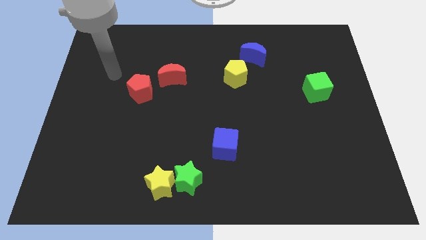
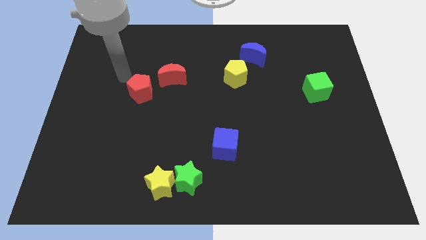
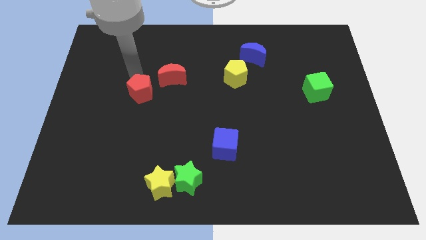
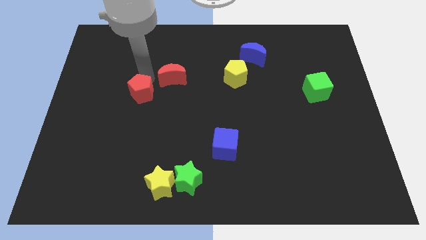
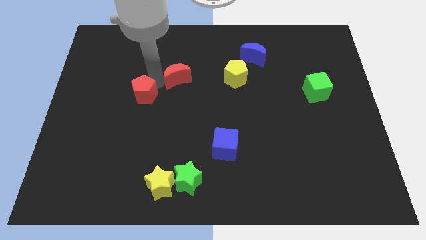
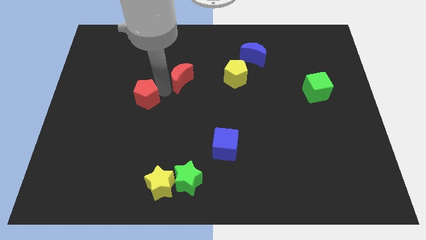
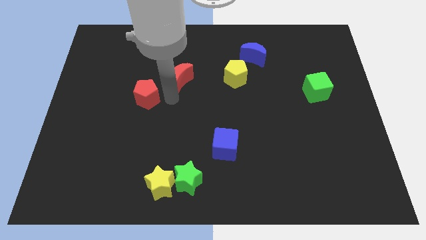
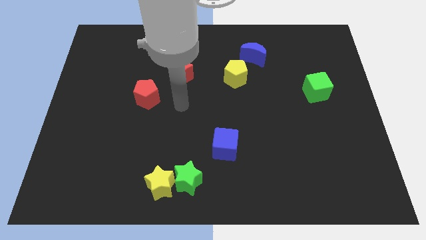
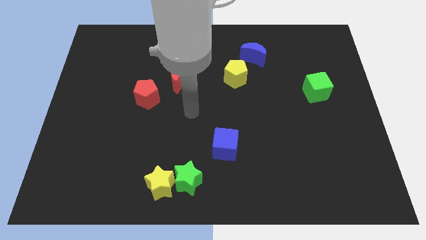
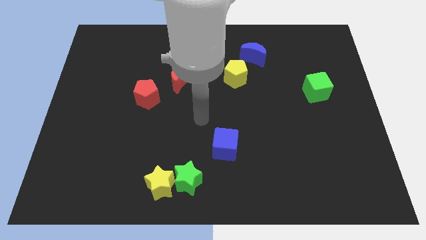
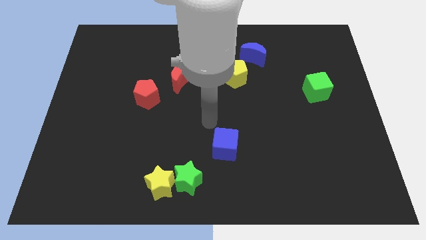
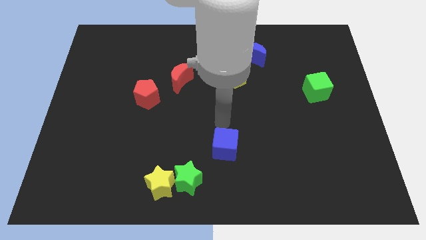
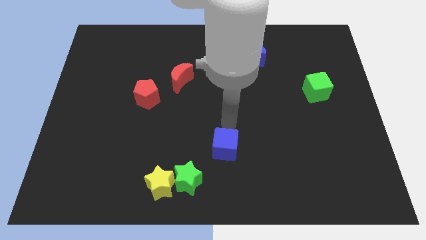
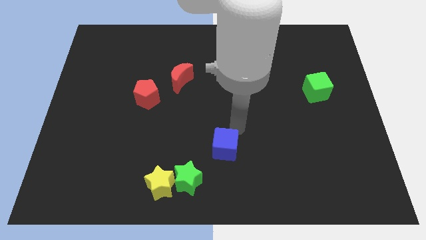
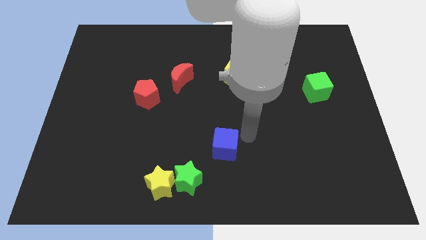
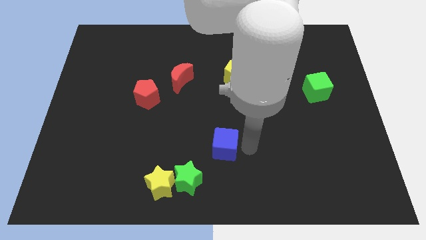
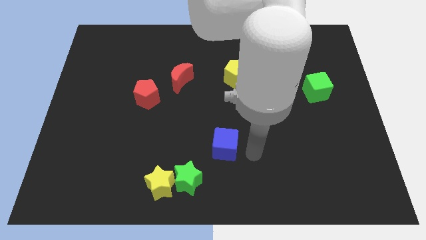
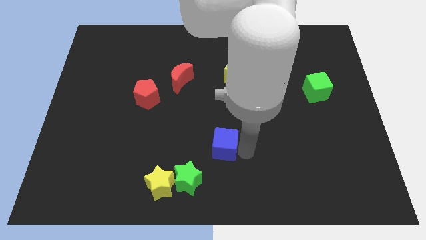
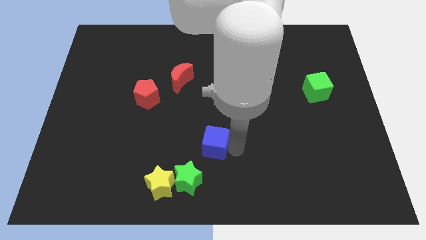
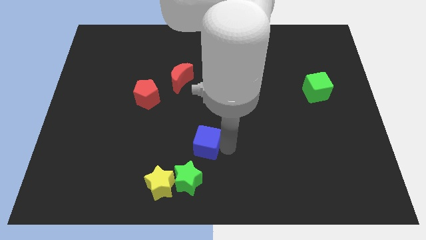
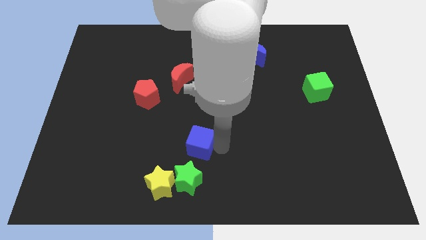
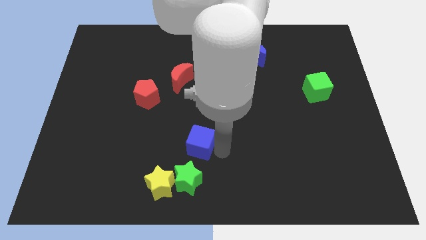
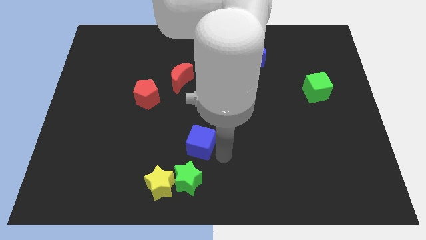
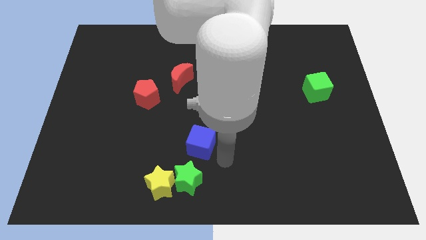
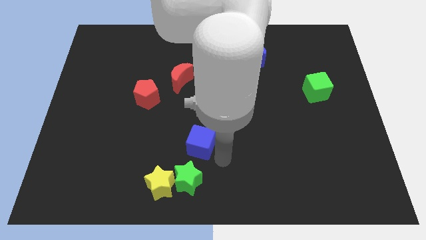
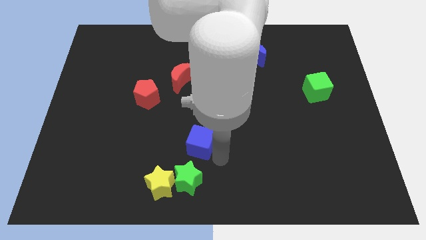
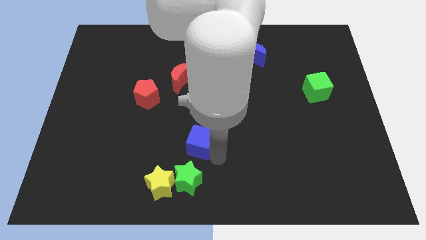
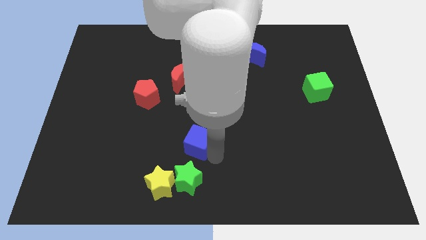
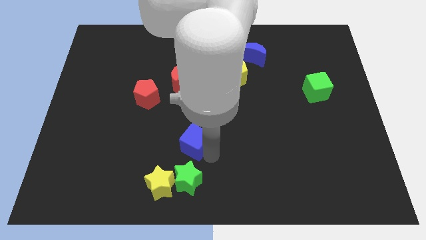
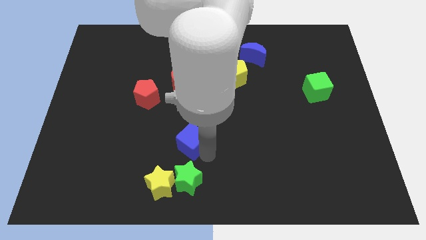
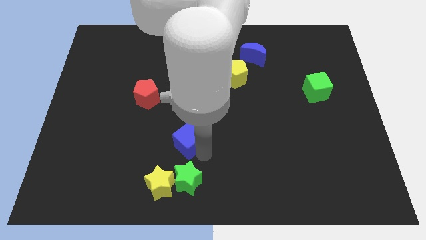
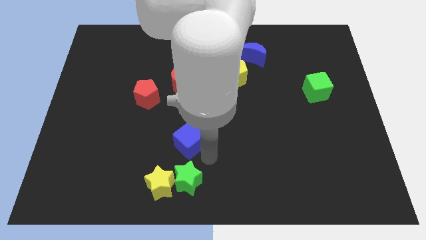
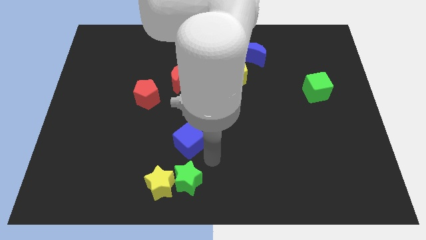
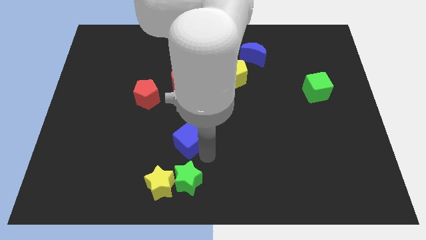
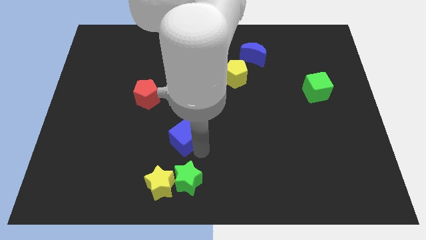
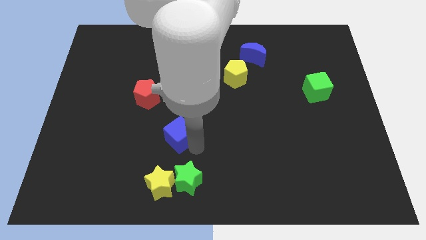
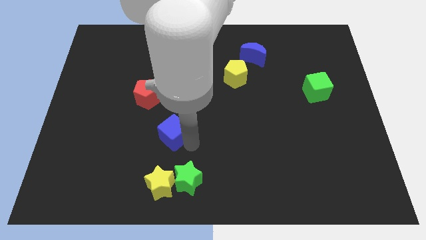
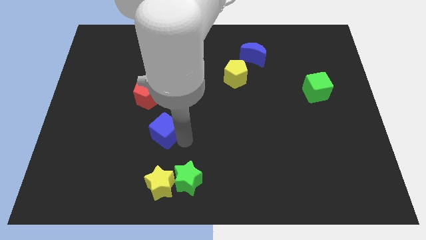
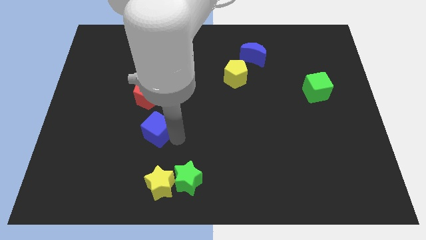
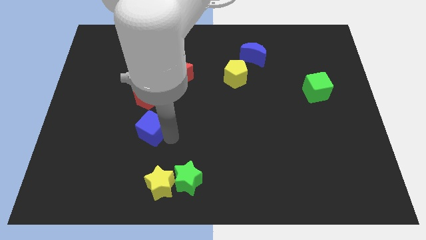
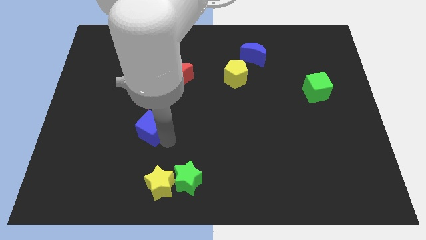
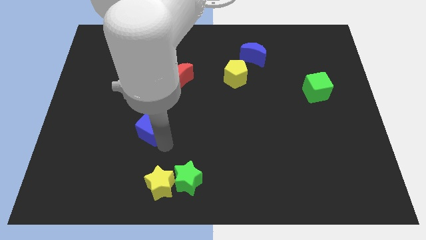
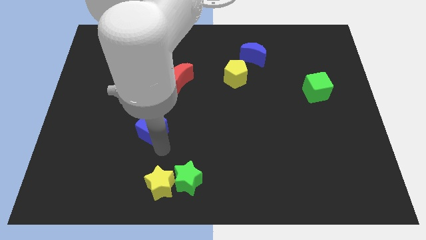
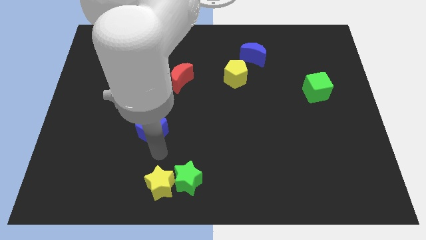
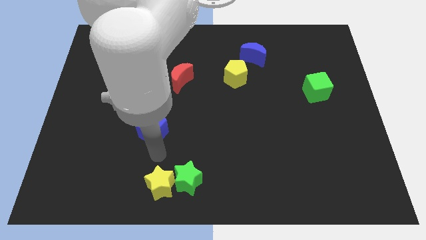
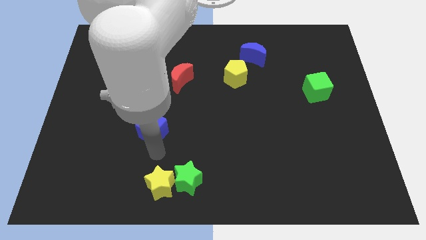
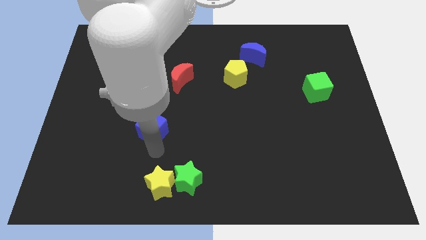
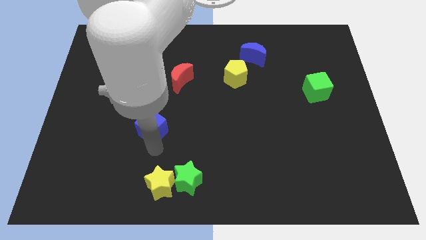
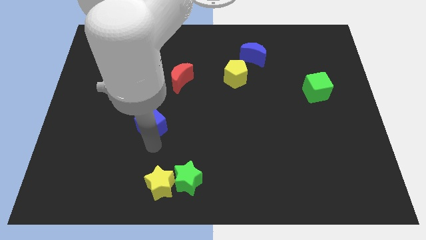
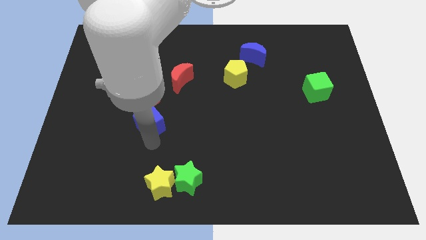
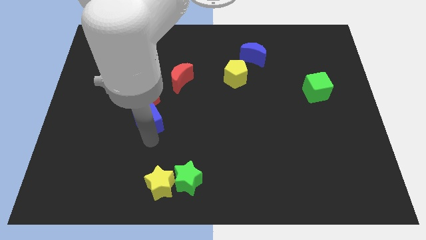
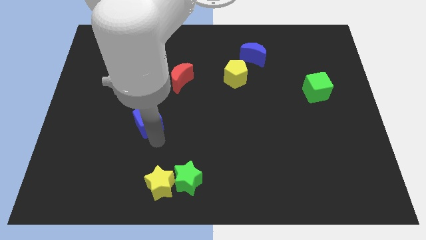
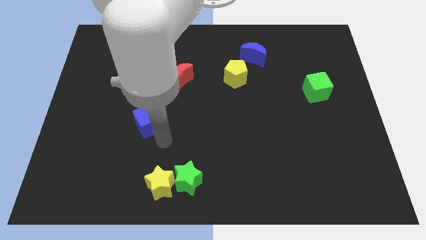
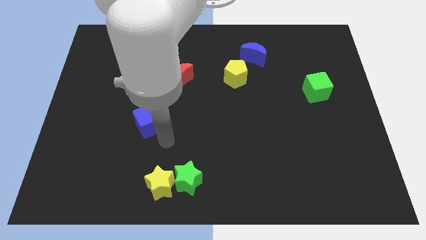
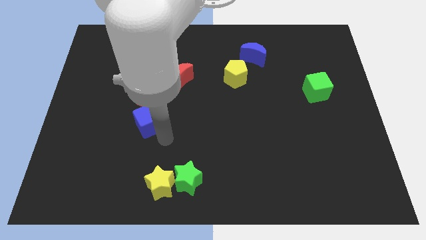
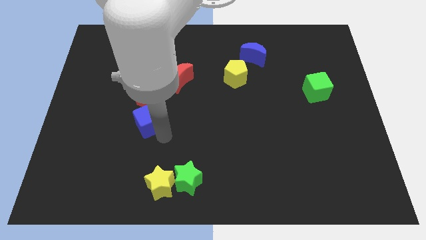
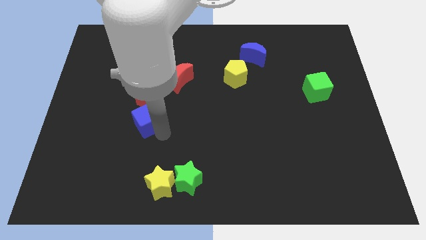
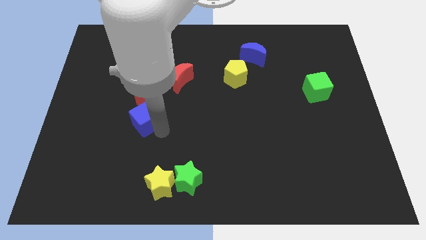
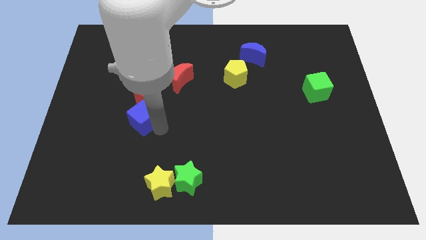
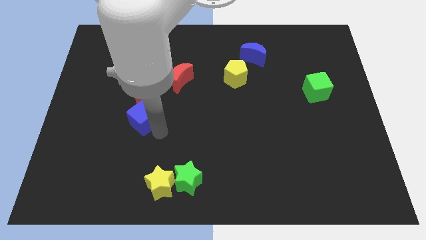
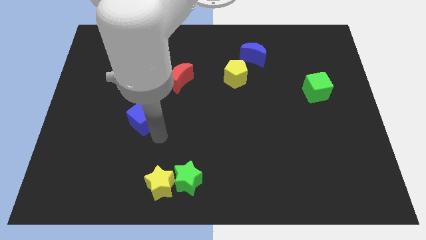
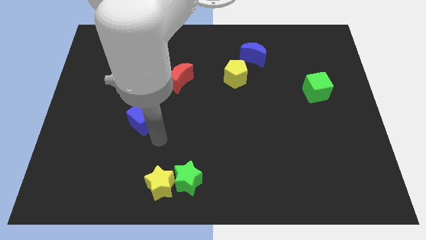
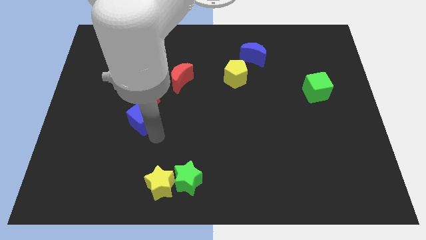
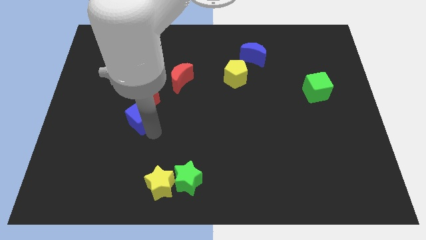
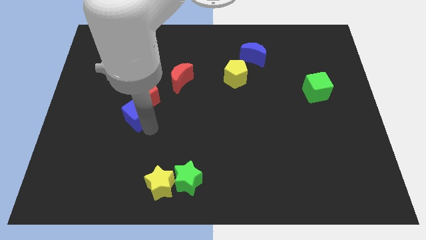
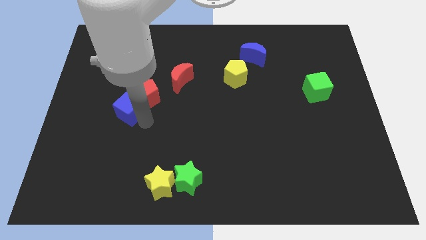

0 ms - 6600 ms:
push the blue cube to the left of the red pentagon
